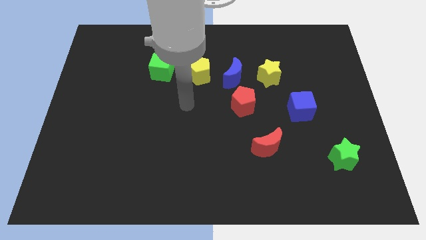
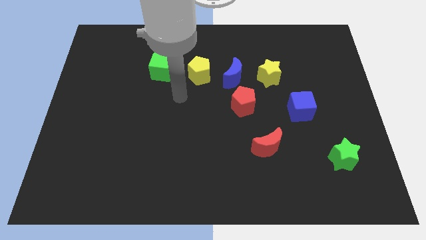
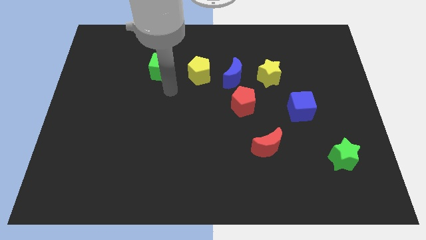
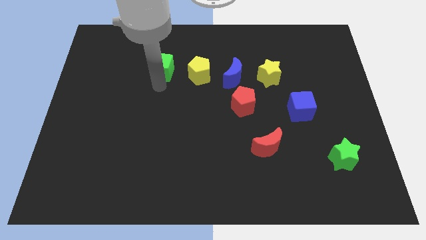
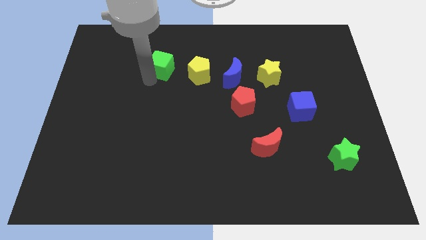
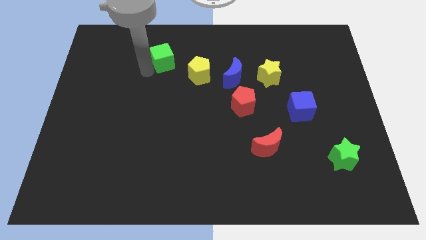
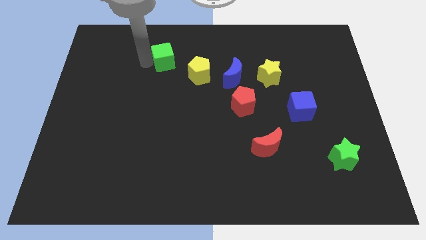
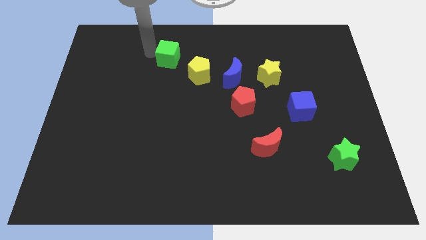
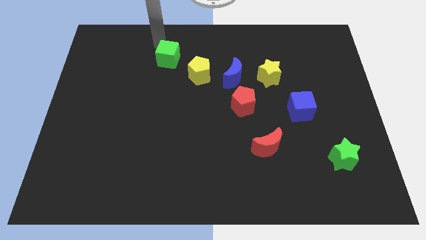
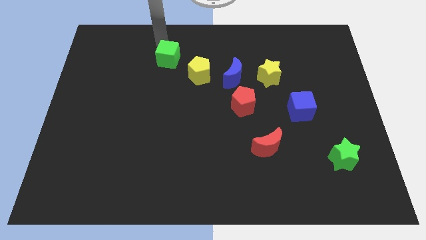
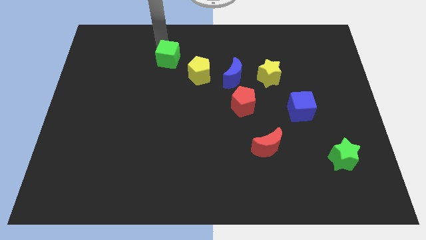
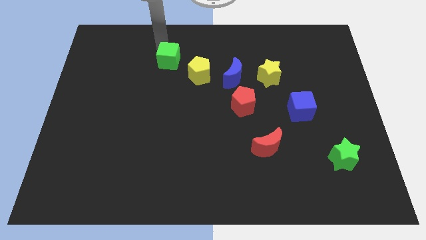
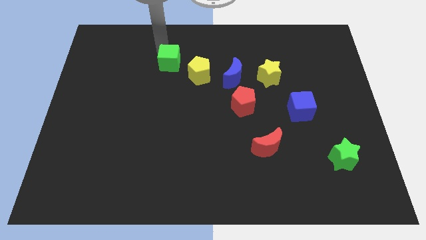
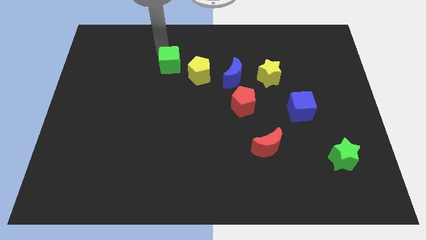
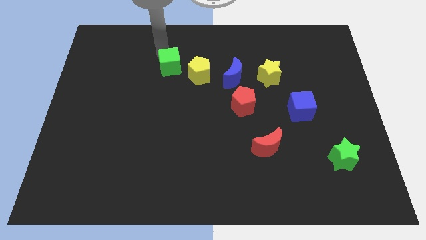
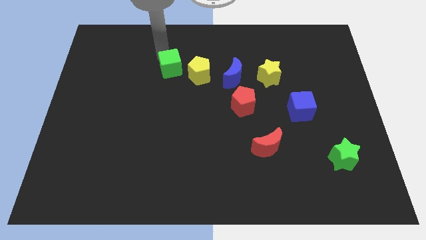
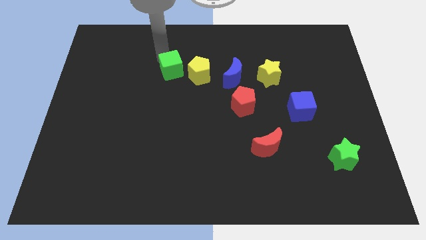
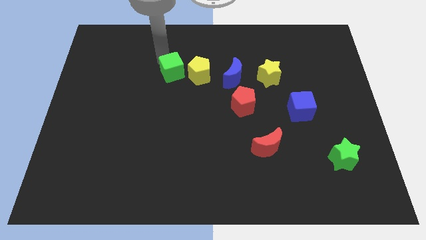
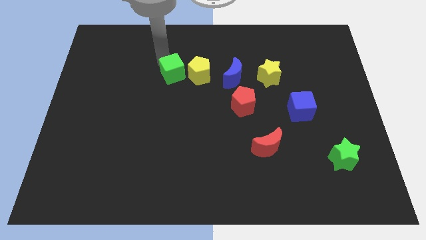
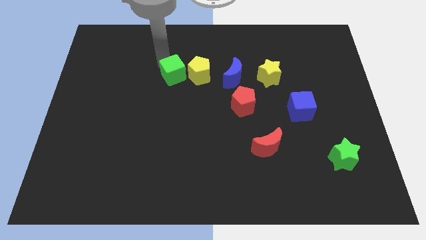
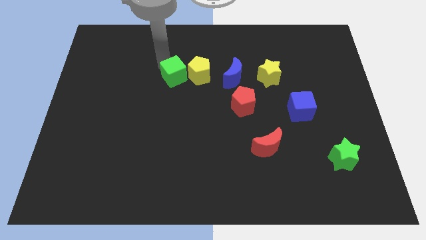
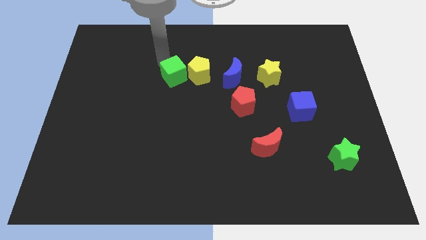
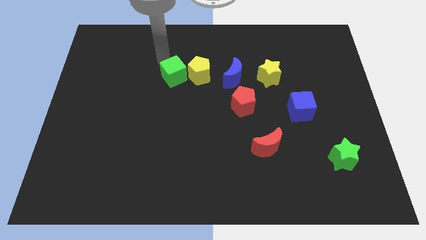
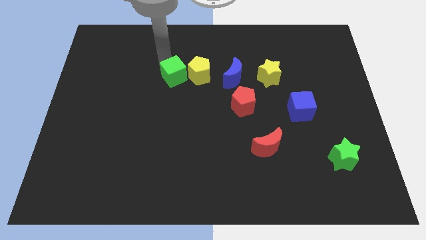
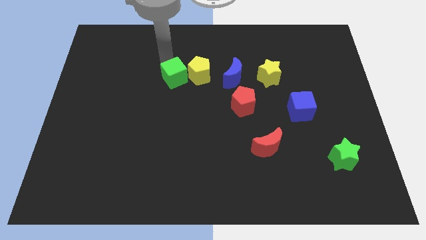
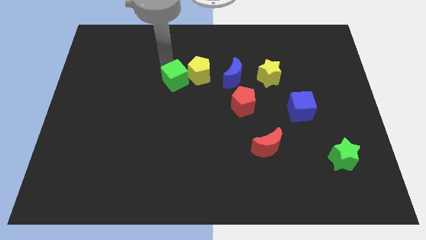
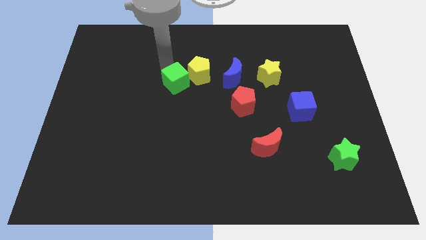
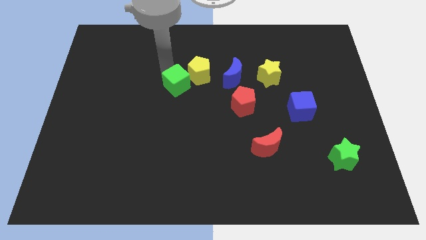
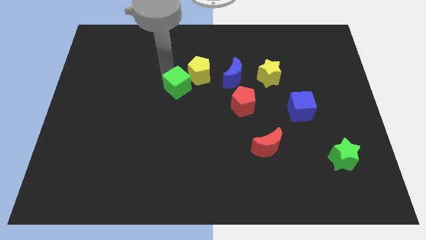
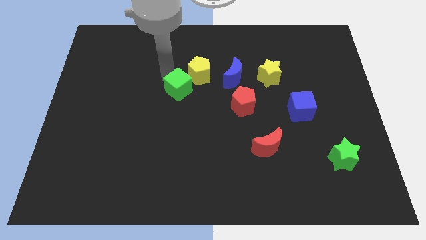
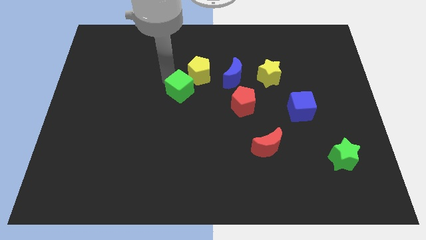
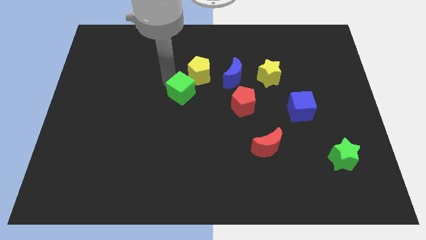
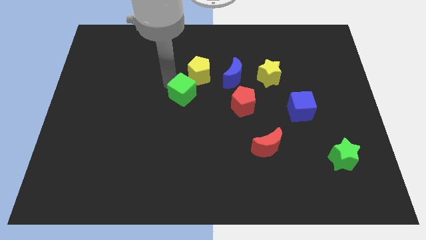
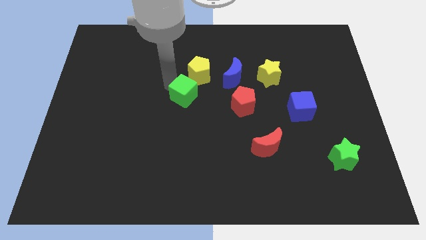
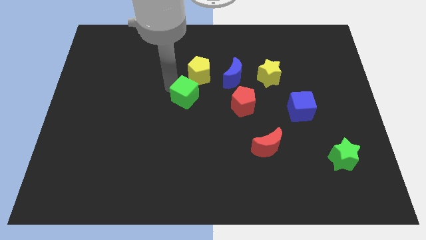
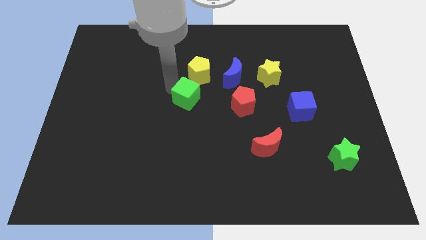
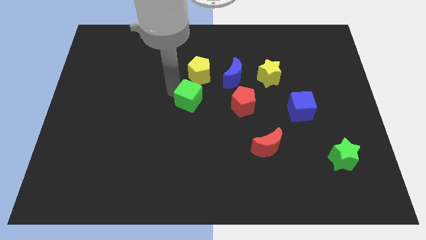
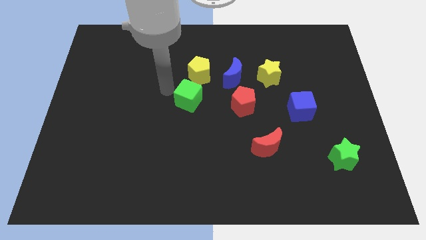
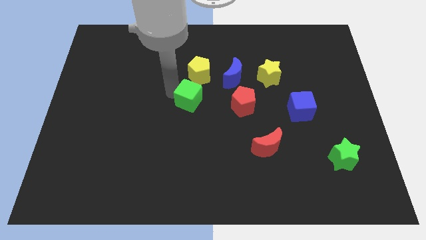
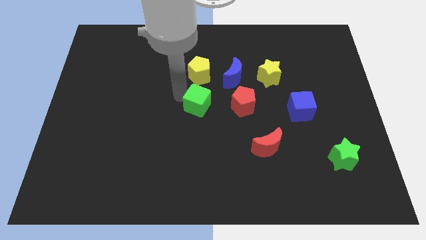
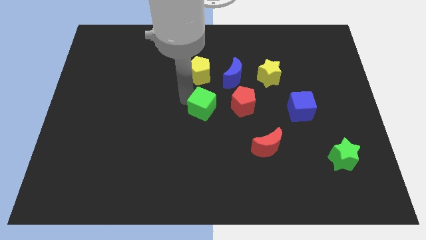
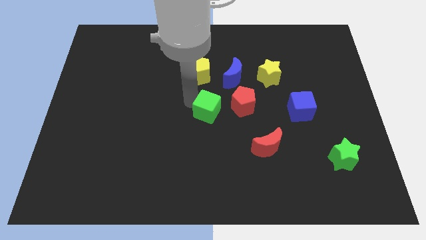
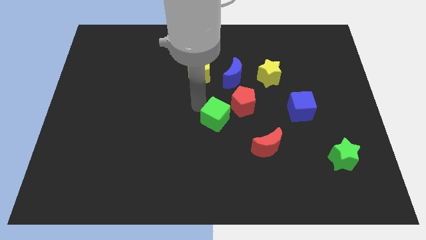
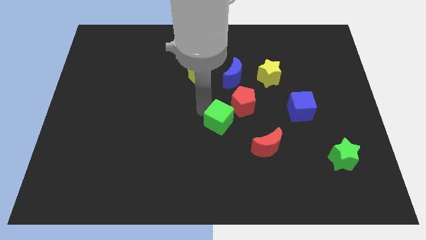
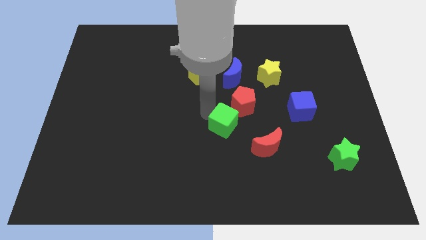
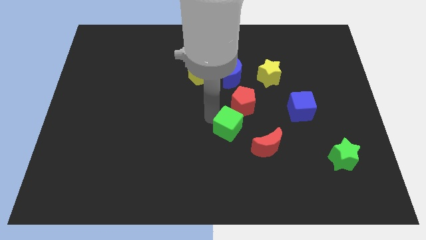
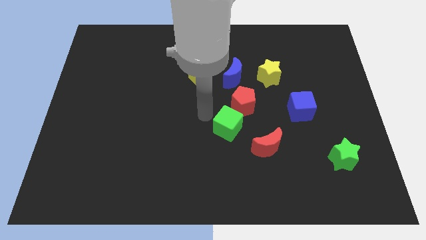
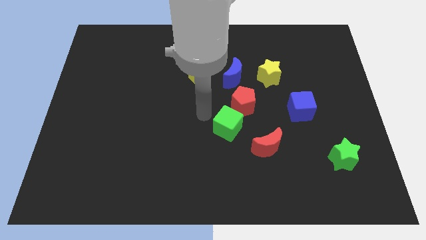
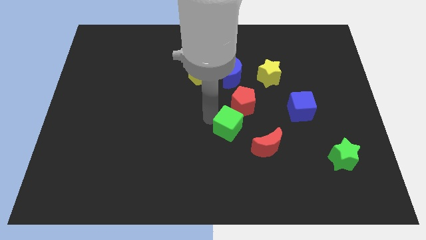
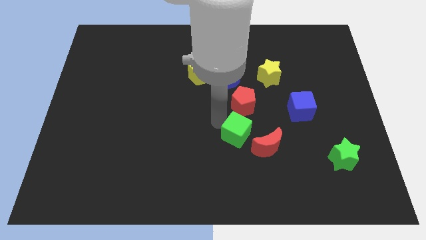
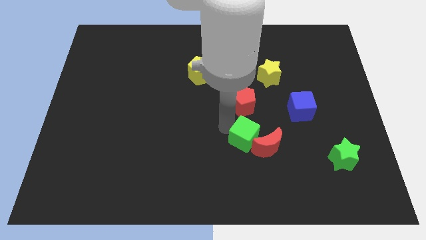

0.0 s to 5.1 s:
push the green cube close to the red moon

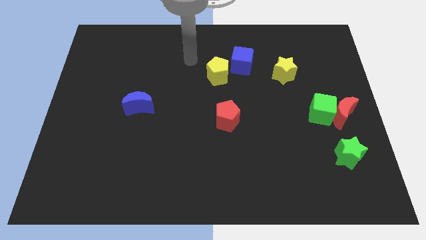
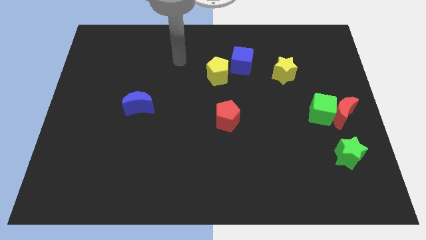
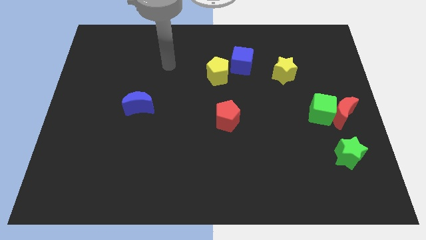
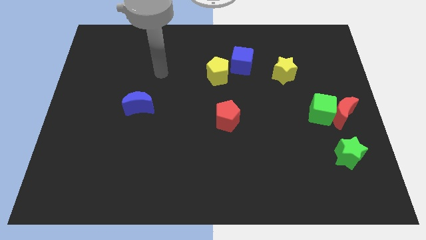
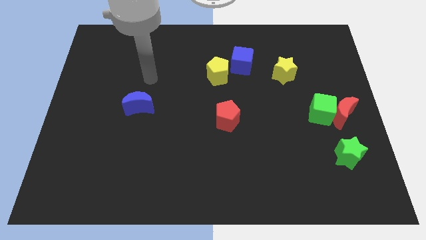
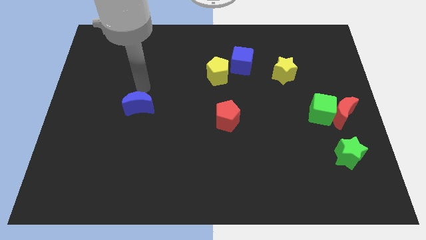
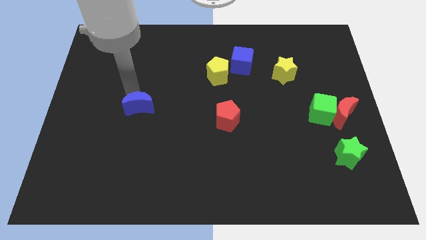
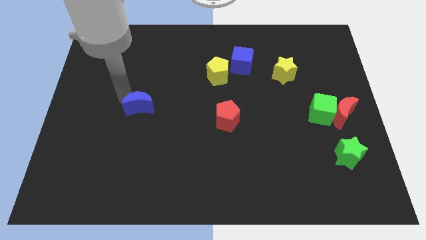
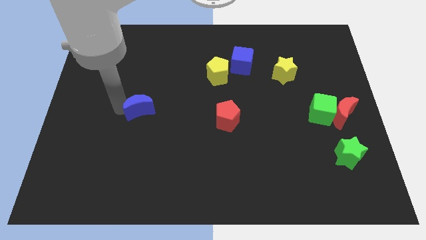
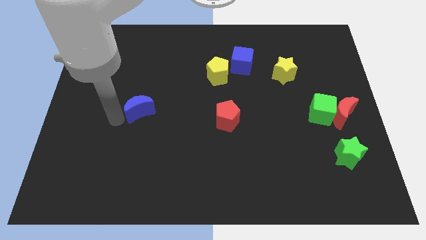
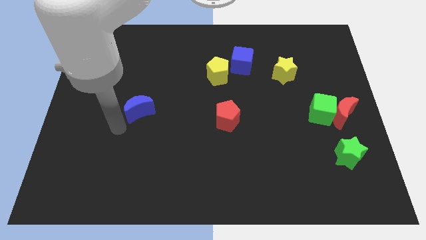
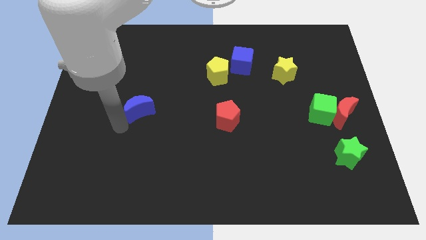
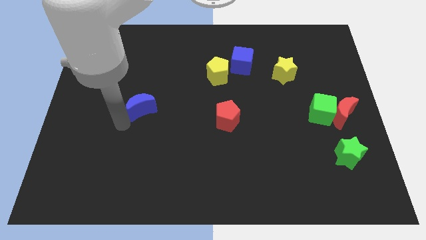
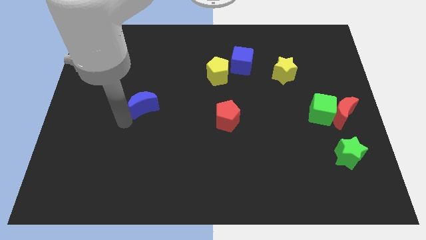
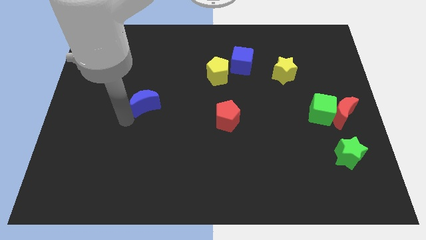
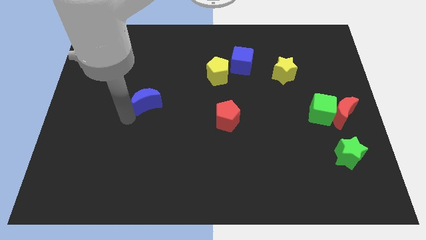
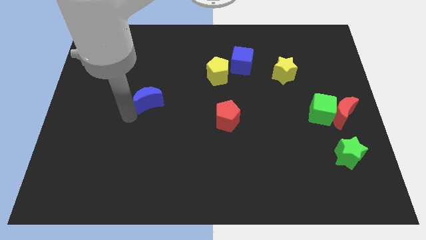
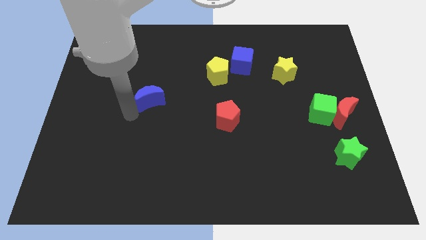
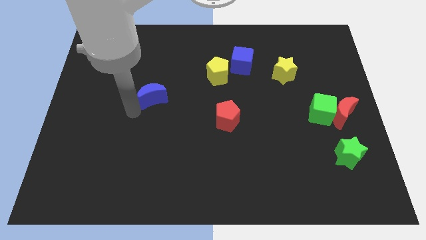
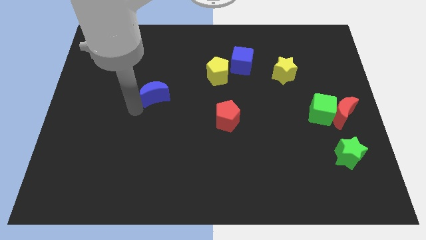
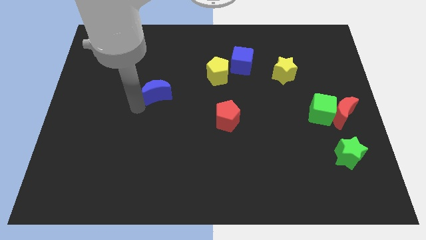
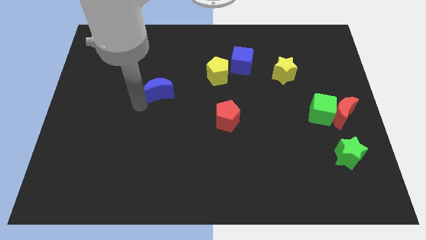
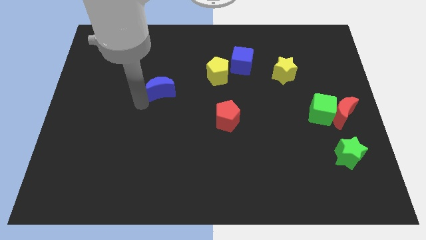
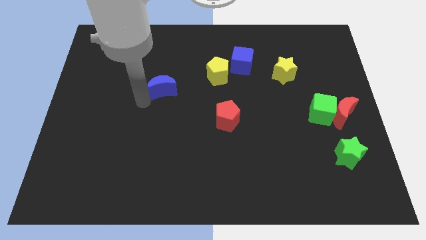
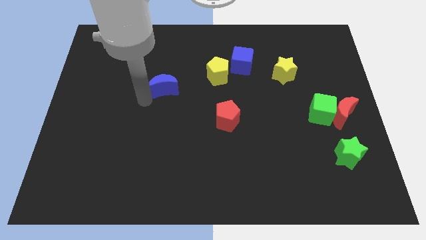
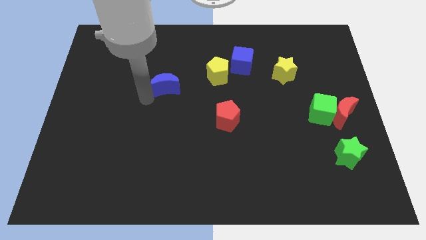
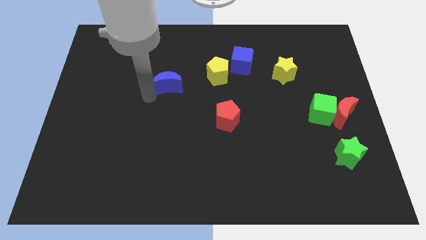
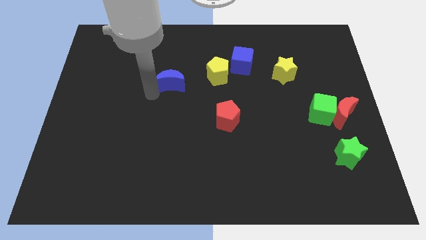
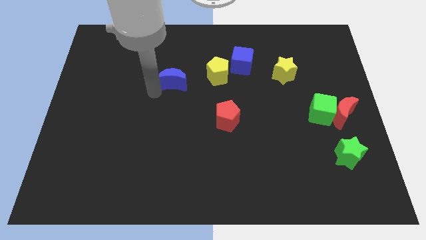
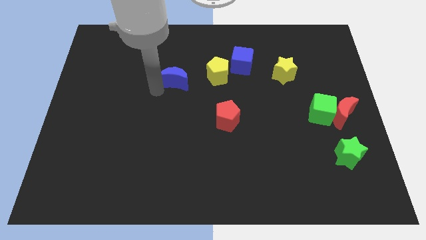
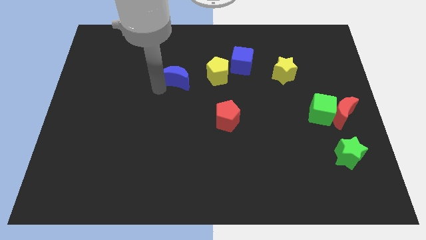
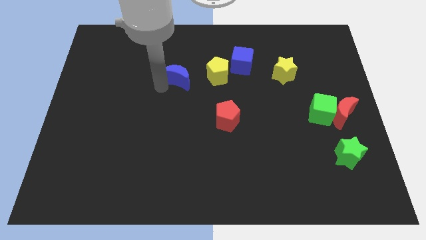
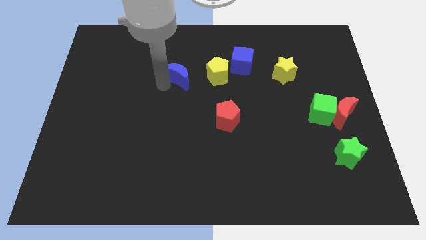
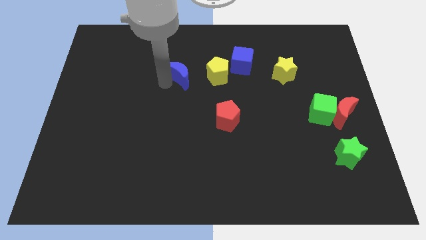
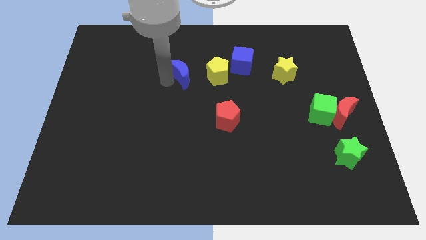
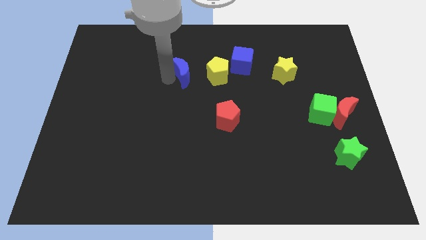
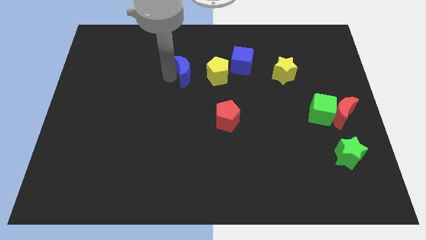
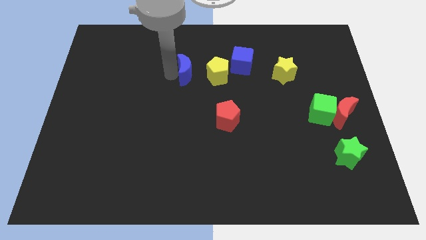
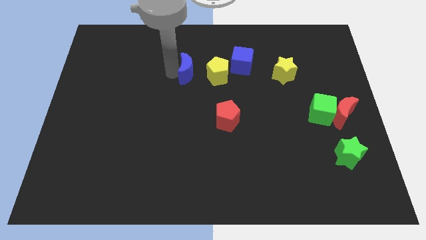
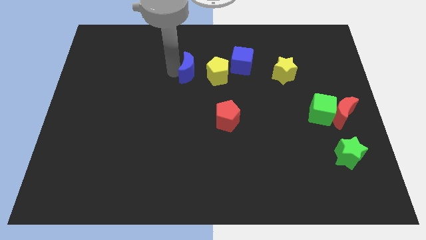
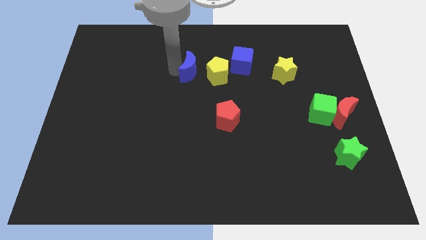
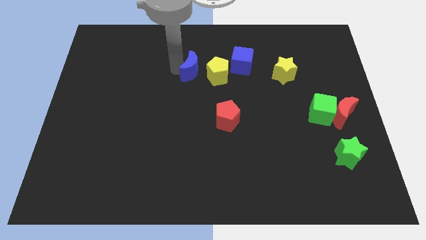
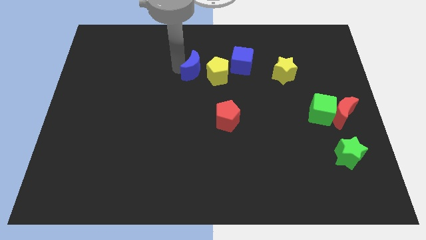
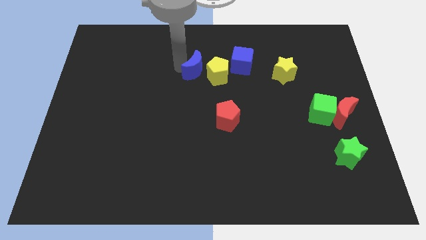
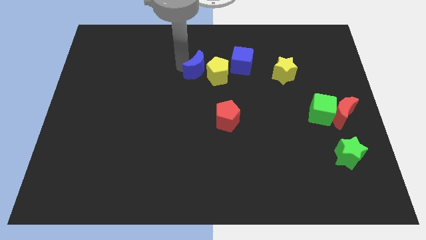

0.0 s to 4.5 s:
move the blue moon next to the yellow pentagon
